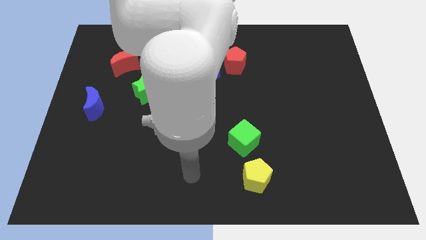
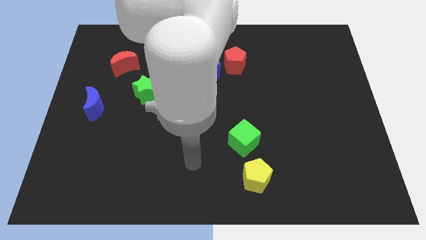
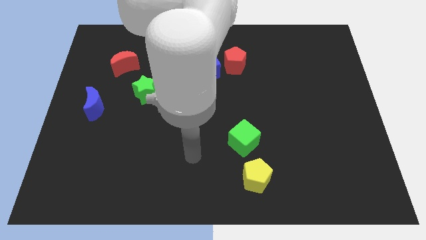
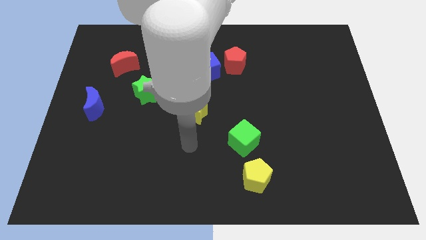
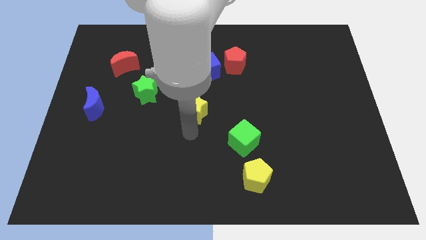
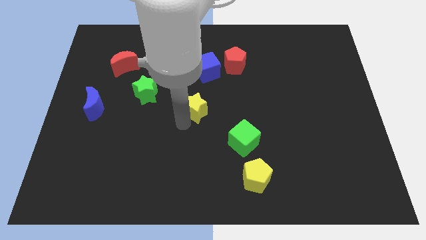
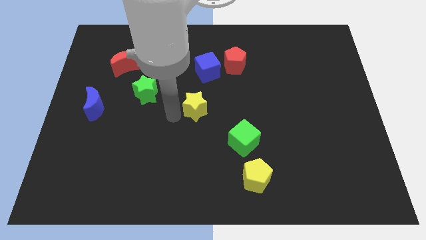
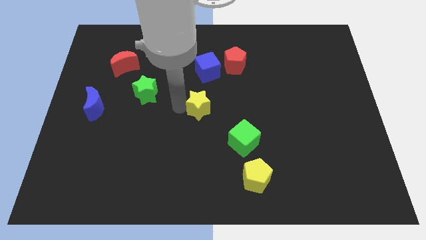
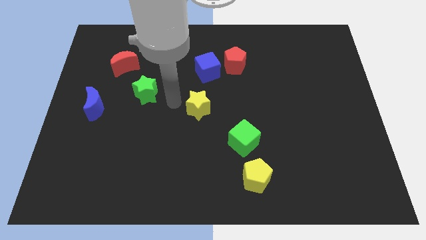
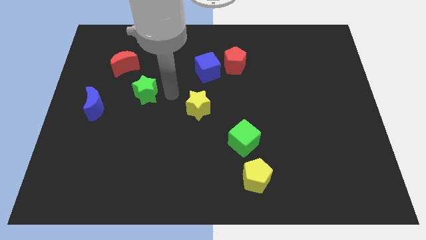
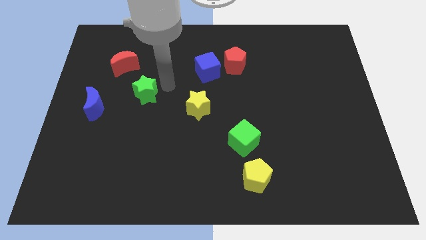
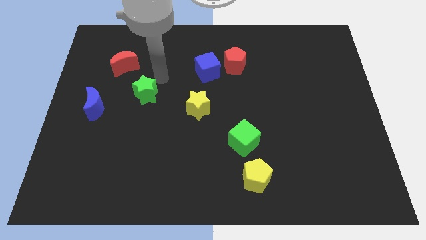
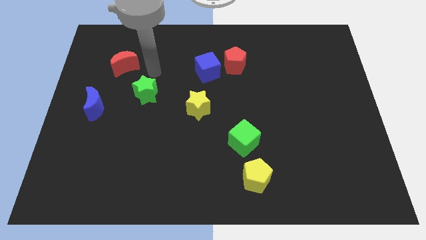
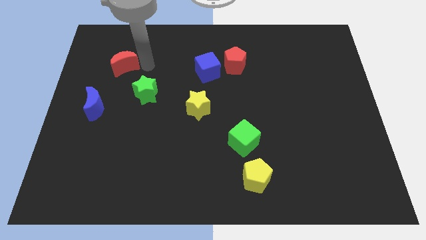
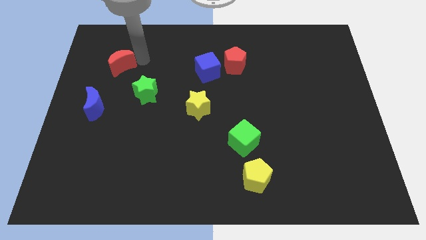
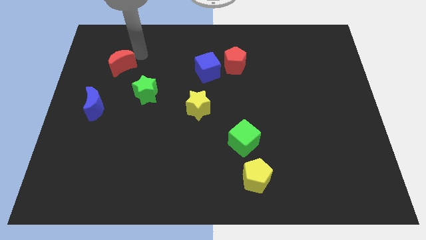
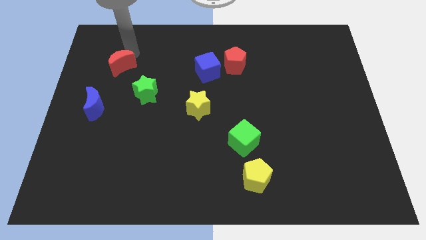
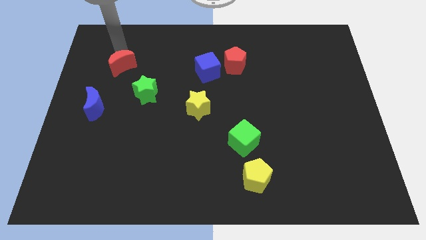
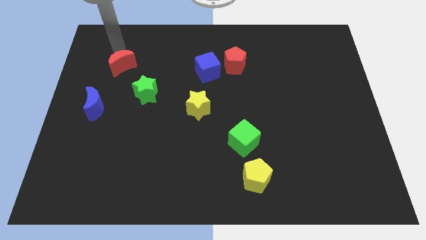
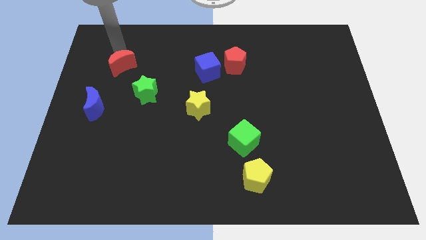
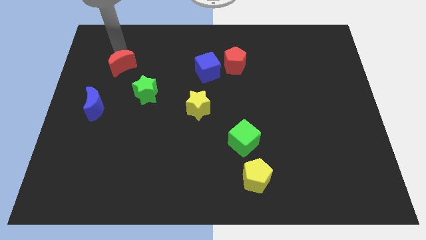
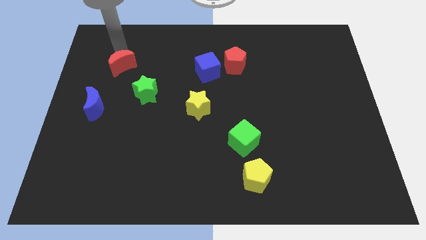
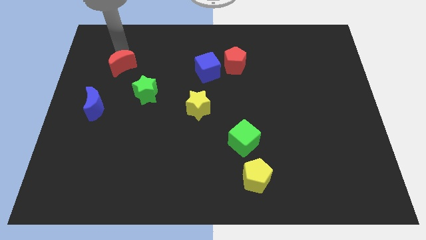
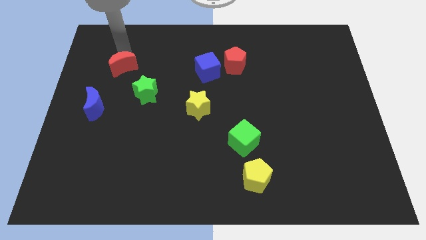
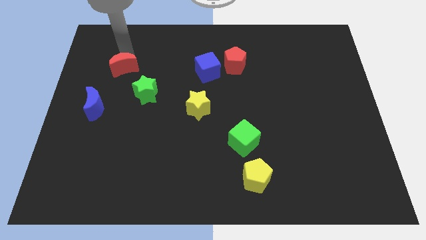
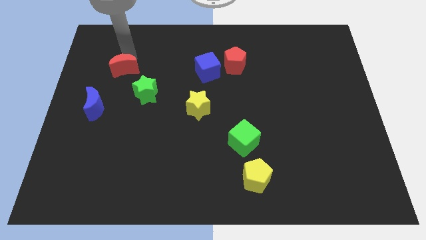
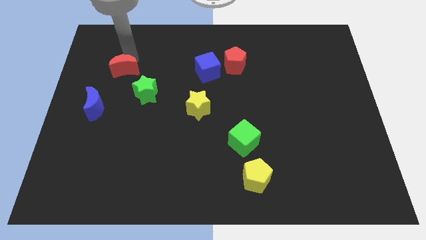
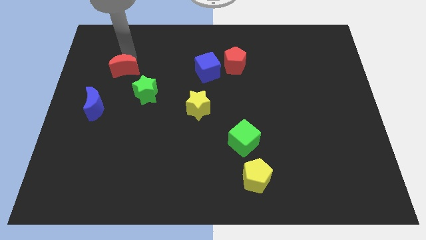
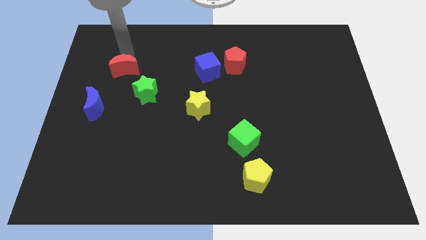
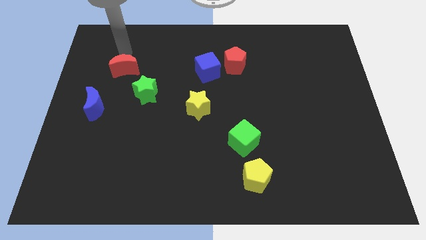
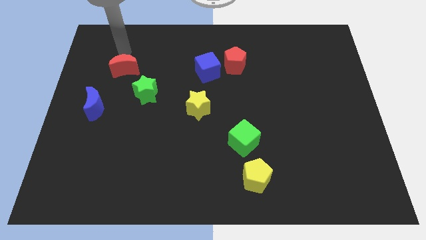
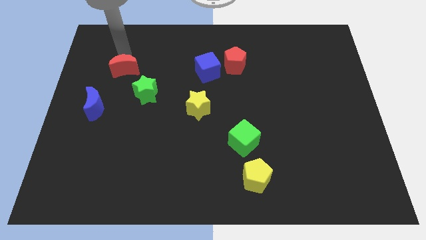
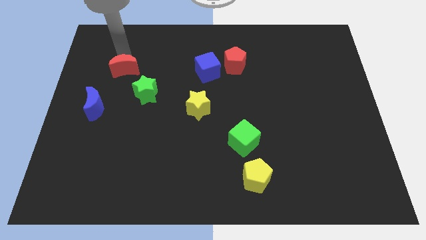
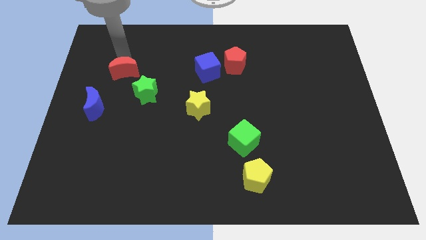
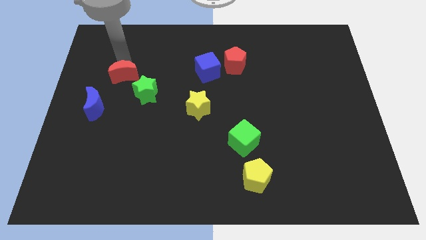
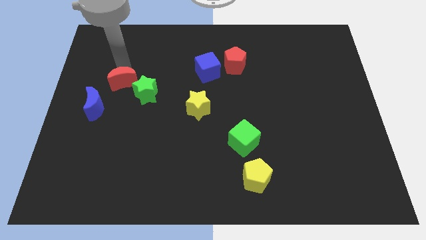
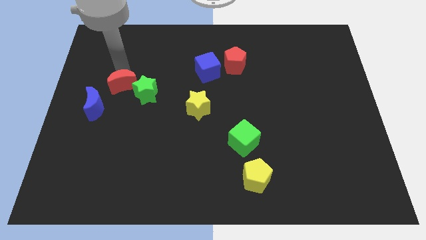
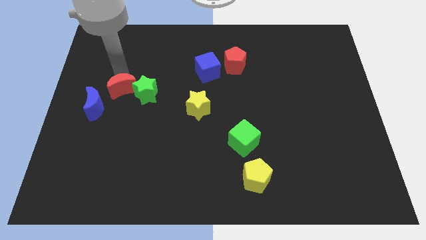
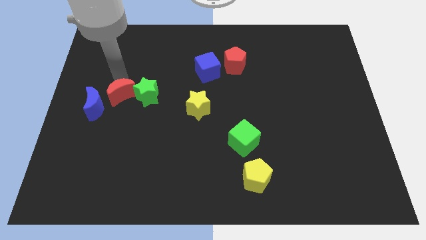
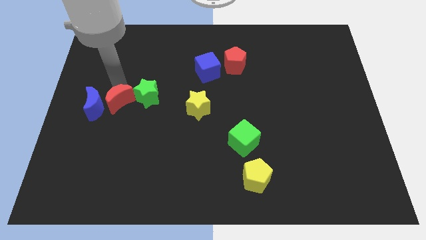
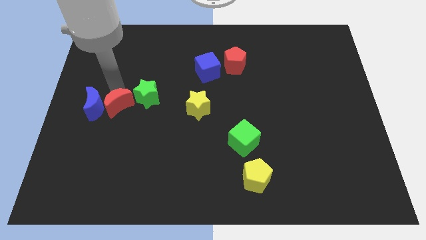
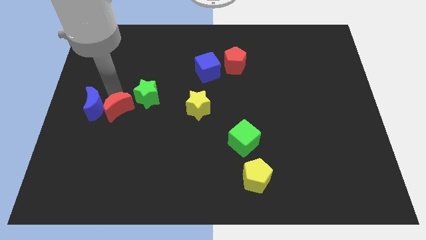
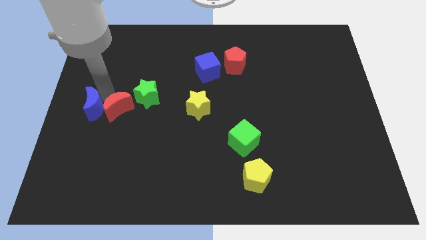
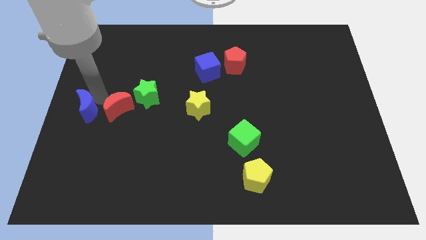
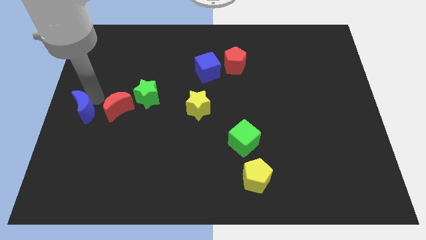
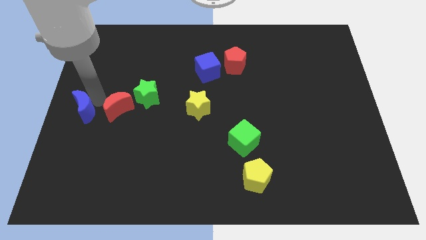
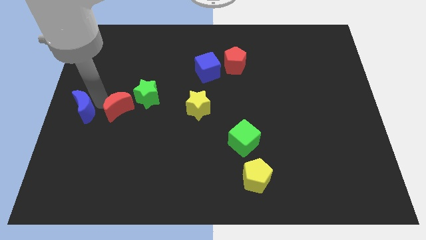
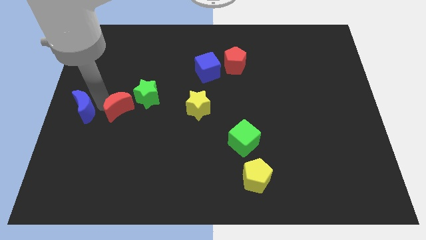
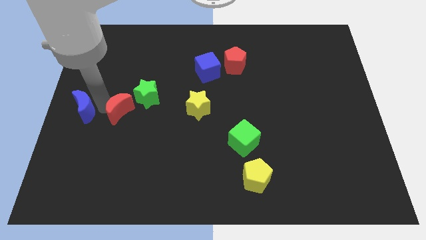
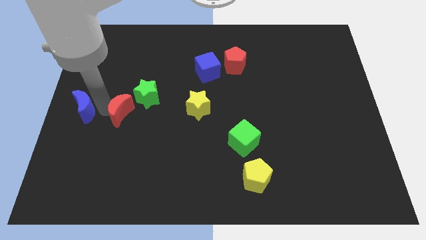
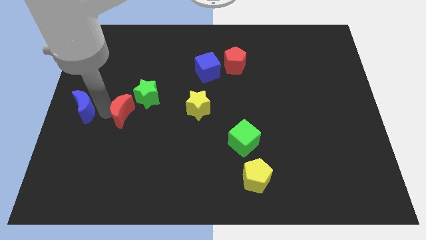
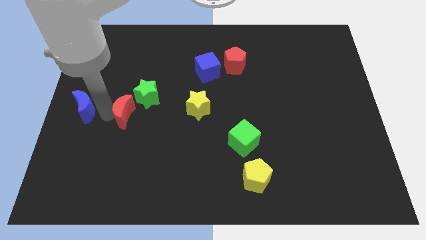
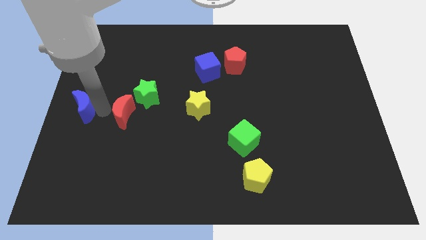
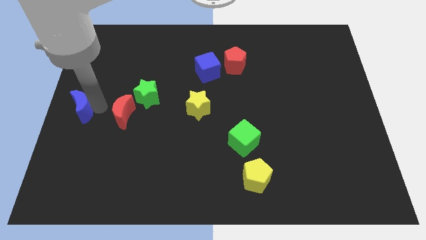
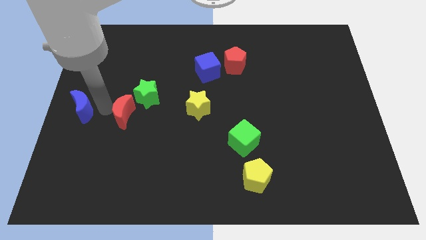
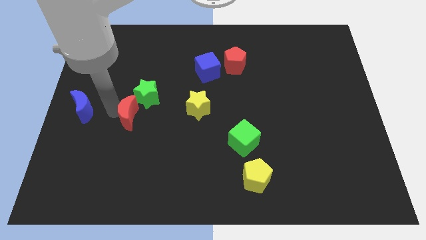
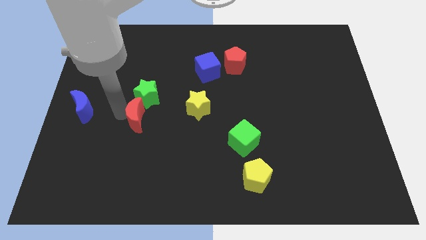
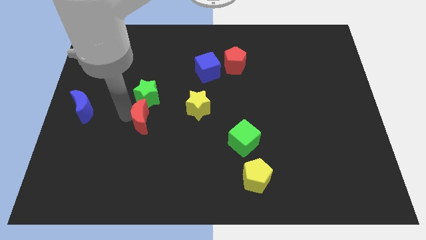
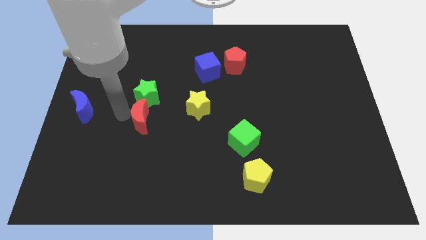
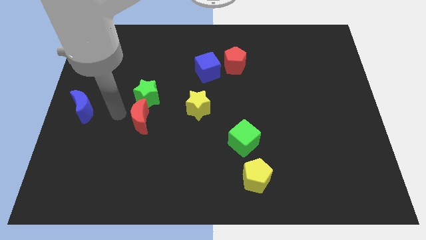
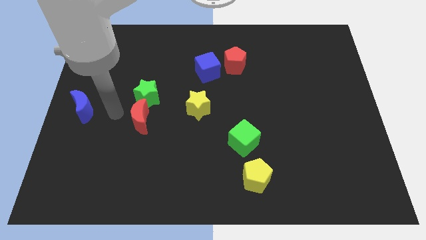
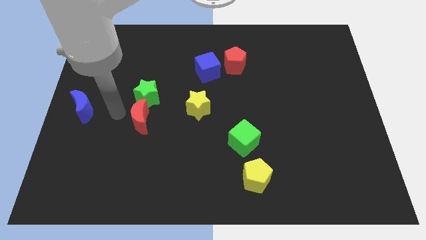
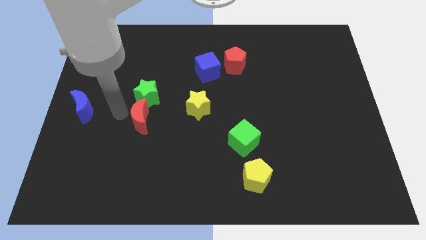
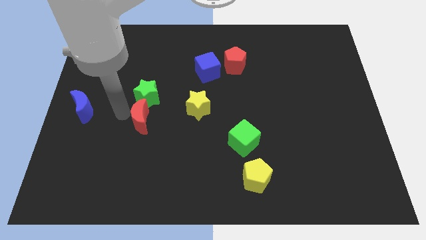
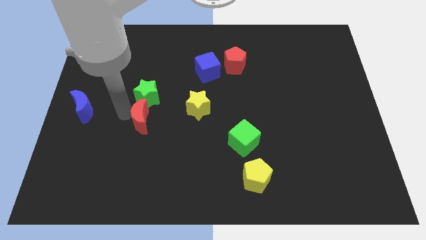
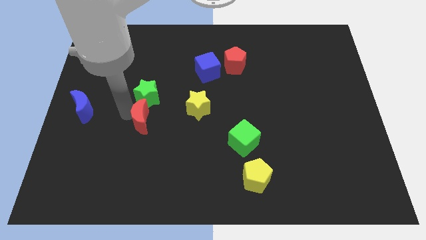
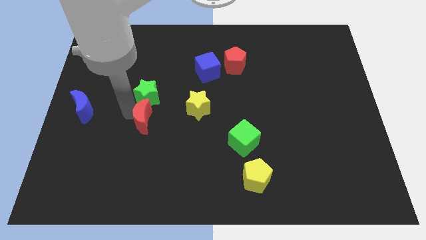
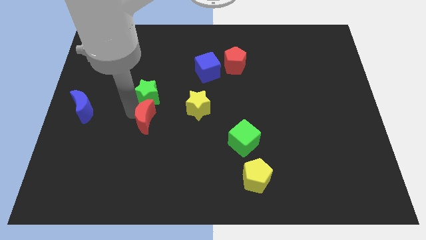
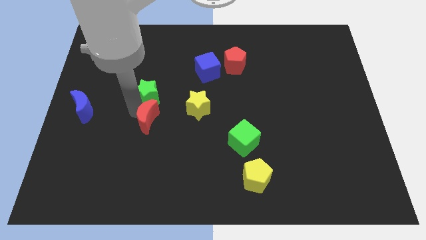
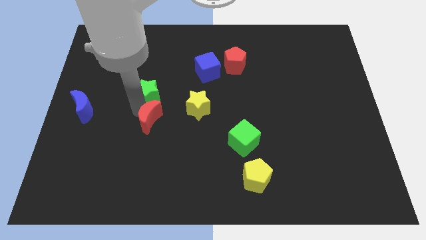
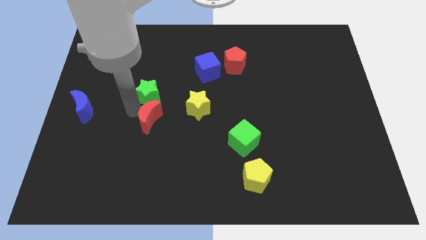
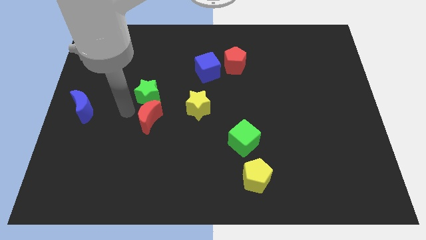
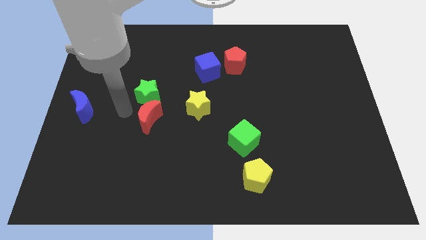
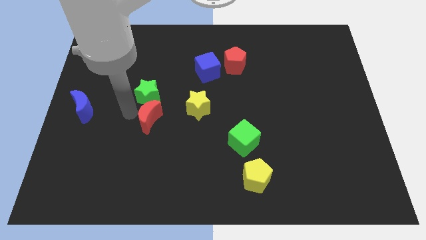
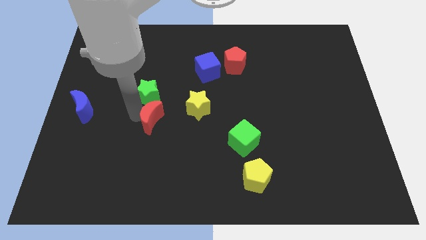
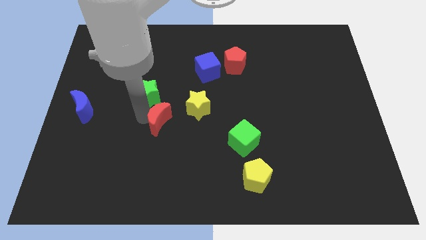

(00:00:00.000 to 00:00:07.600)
put the red moon diagonally down and to the left of the yellow star

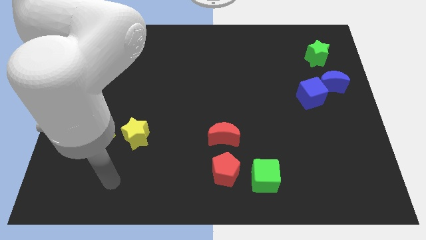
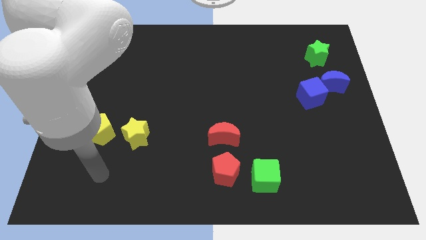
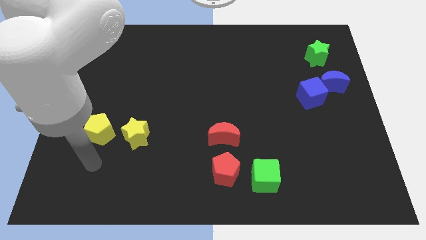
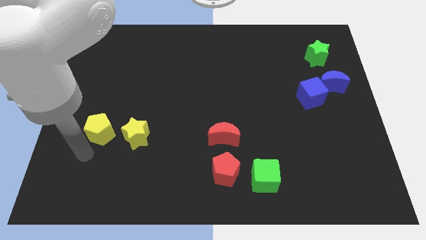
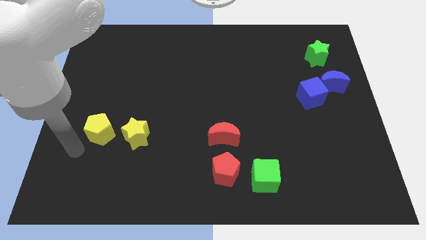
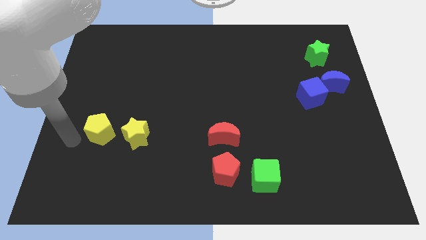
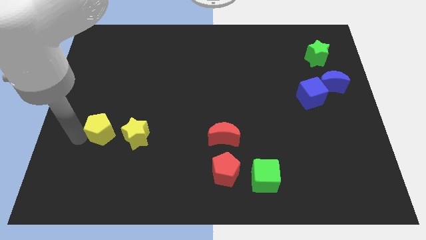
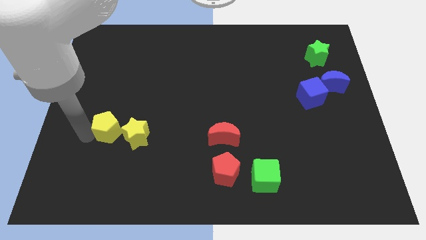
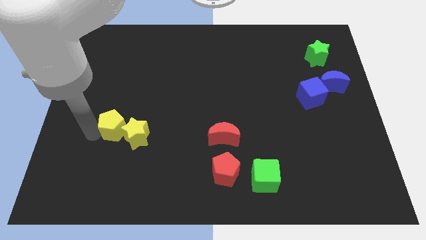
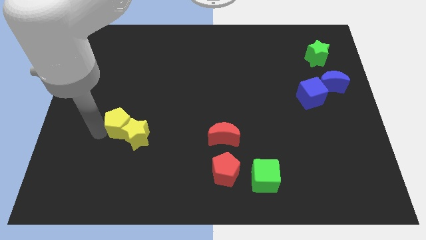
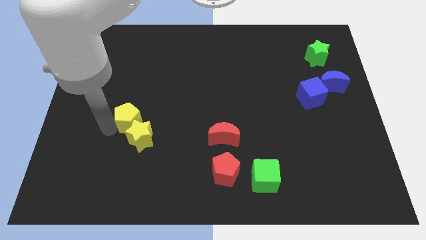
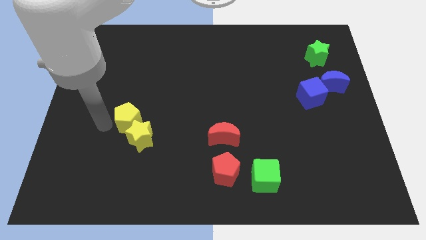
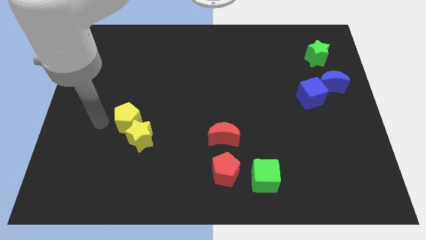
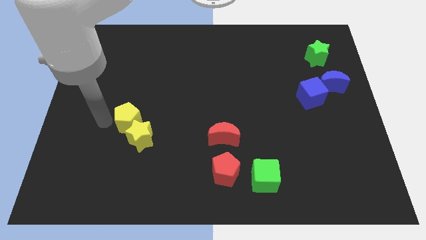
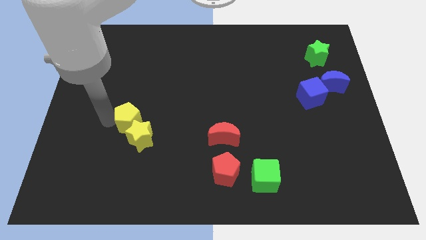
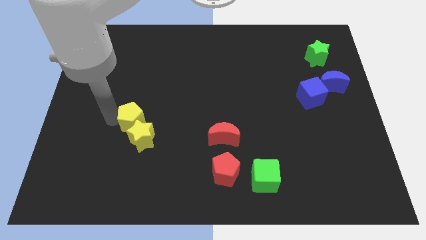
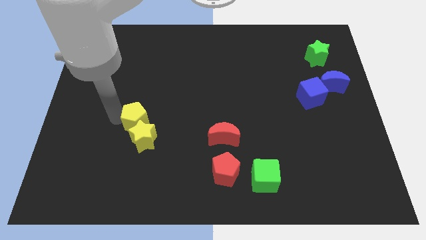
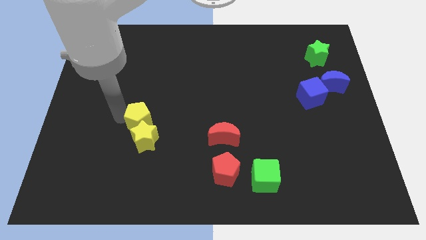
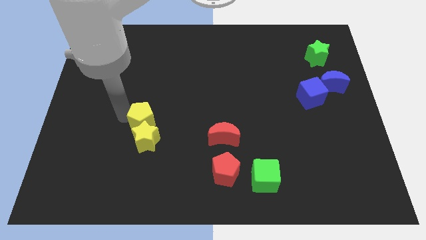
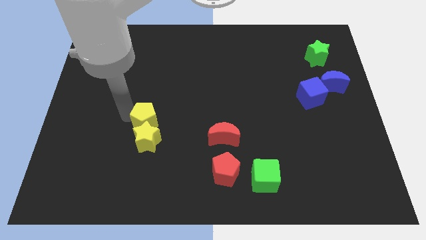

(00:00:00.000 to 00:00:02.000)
move the yellow pentagon to the top right of the yellow star
